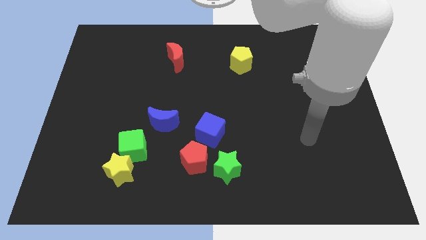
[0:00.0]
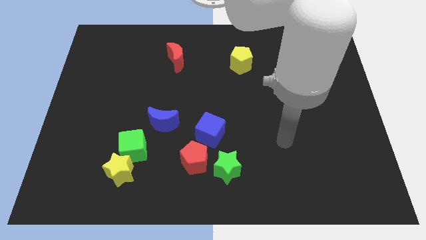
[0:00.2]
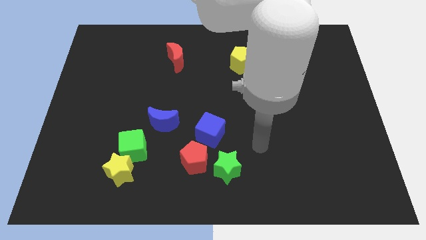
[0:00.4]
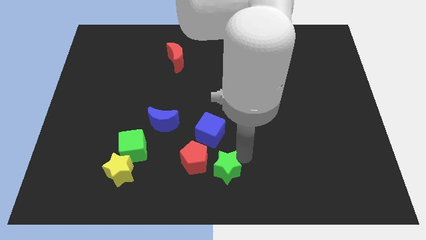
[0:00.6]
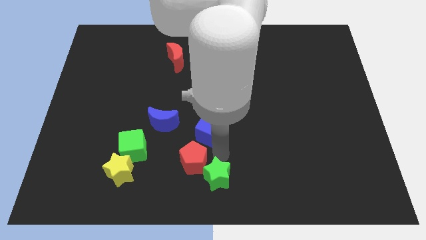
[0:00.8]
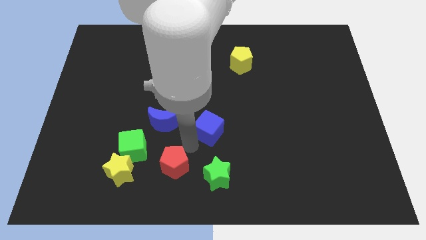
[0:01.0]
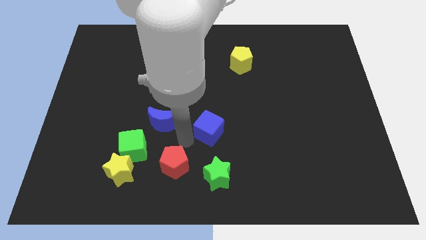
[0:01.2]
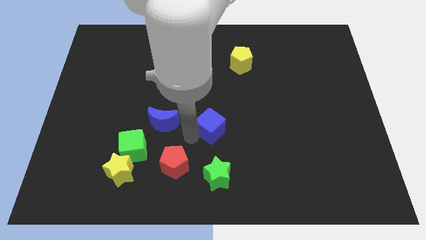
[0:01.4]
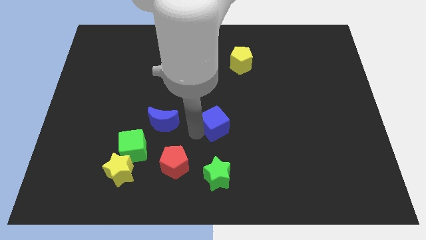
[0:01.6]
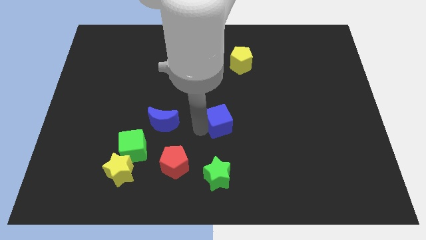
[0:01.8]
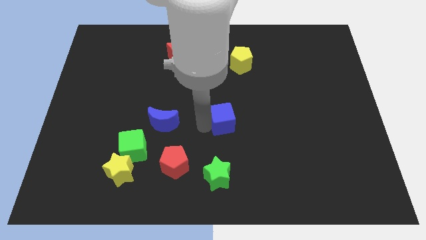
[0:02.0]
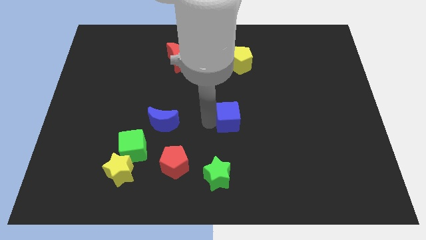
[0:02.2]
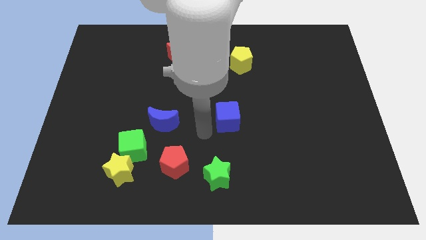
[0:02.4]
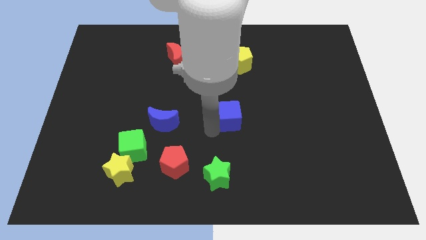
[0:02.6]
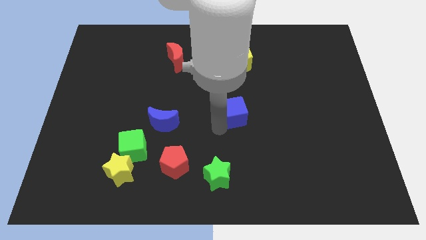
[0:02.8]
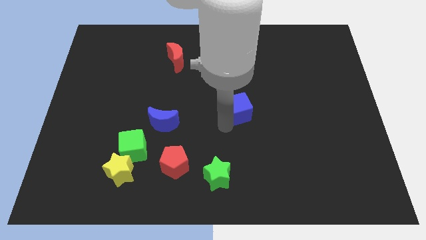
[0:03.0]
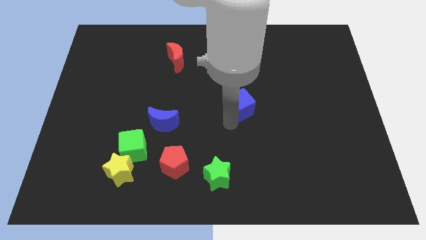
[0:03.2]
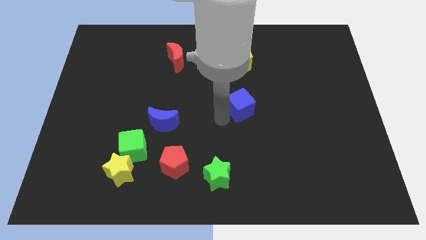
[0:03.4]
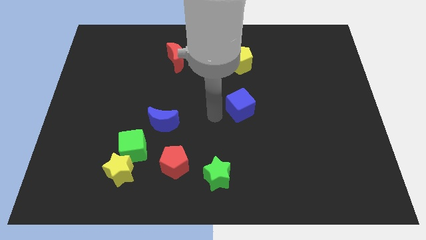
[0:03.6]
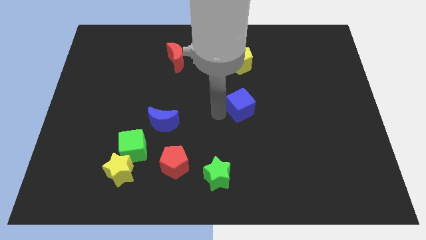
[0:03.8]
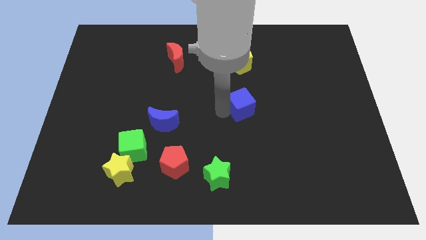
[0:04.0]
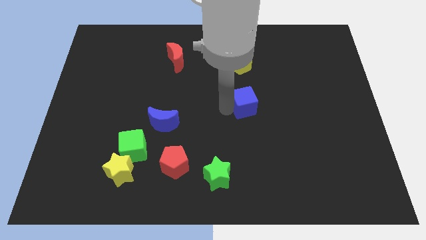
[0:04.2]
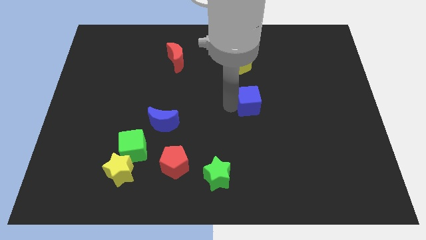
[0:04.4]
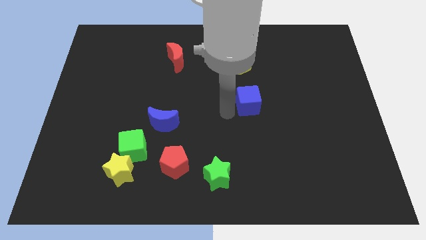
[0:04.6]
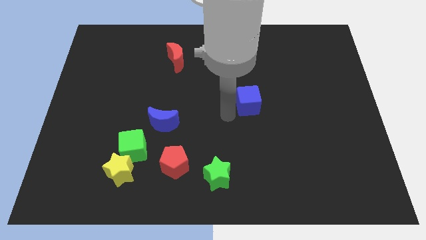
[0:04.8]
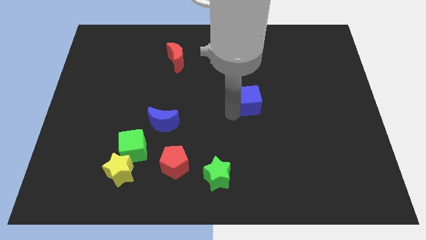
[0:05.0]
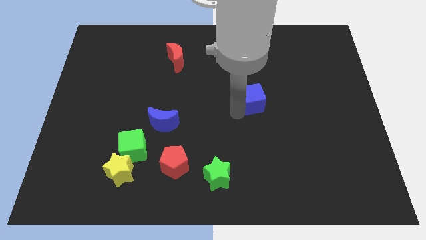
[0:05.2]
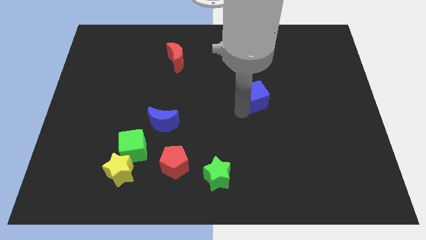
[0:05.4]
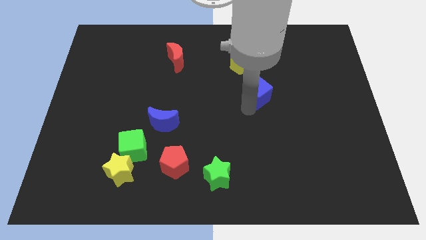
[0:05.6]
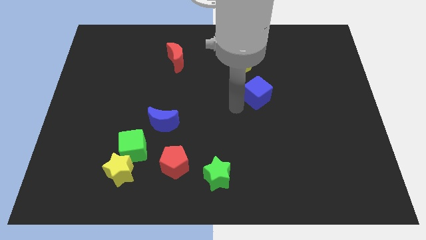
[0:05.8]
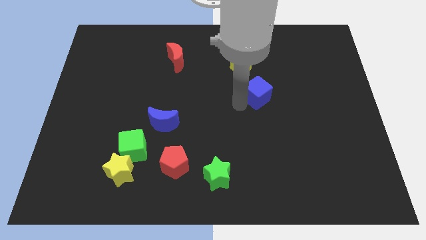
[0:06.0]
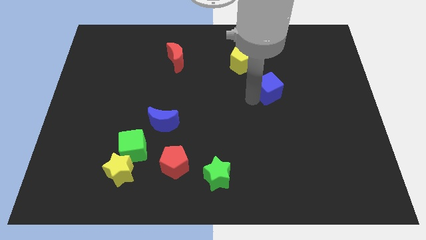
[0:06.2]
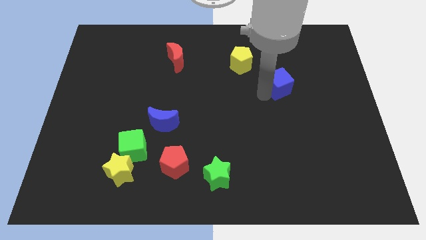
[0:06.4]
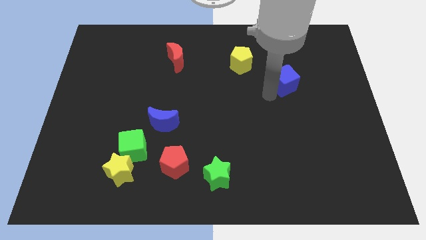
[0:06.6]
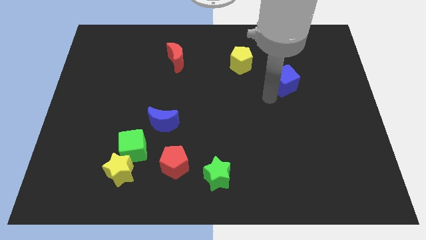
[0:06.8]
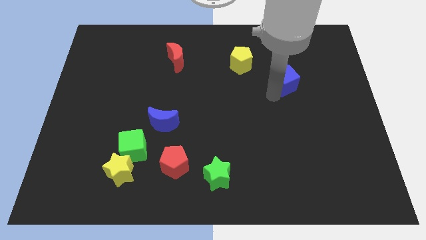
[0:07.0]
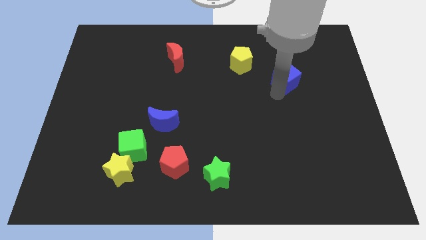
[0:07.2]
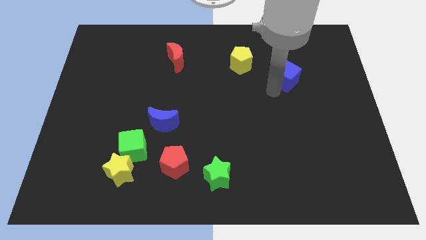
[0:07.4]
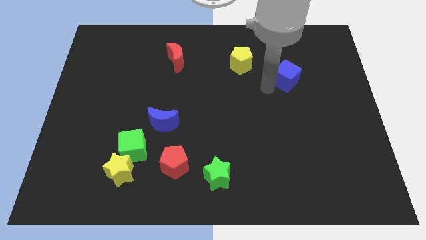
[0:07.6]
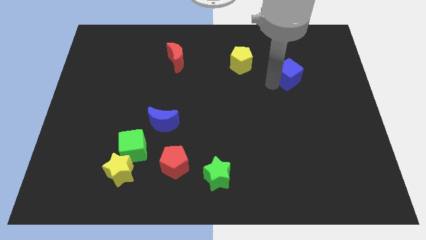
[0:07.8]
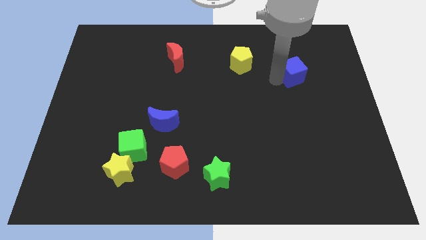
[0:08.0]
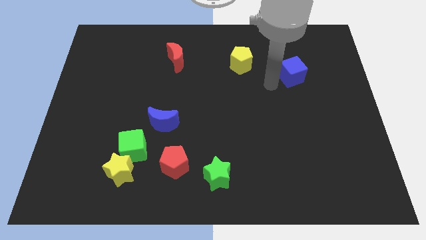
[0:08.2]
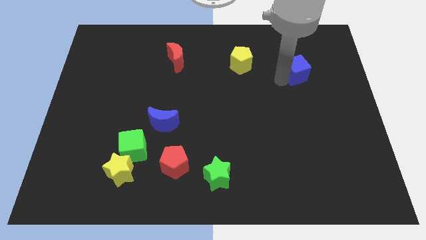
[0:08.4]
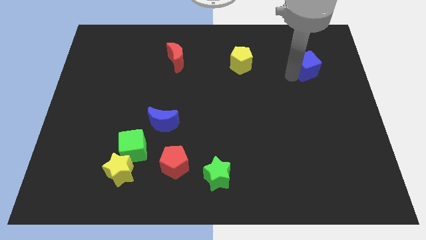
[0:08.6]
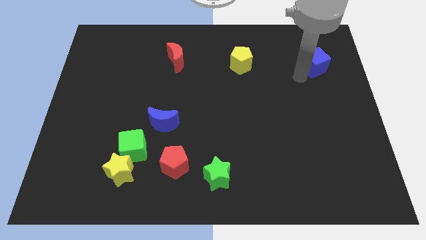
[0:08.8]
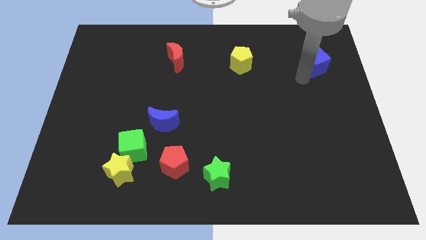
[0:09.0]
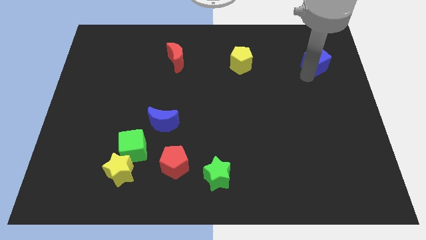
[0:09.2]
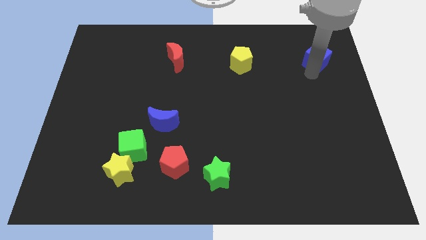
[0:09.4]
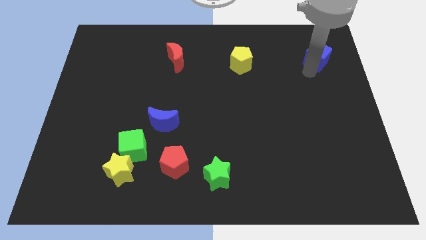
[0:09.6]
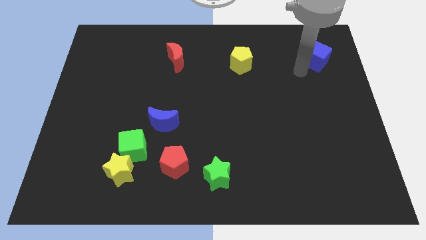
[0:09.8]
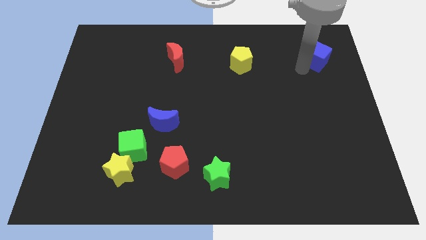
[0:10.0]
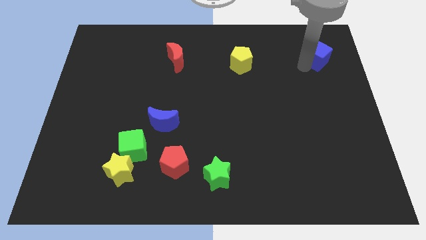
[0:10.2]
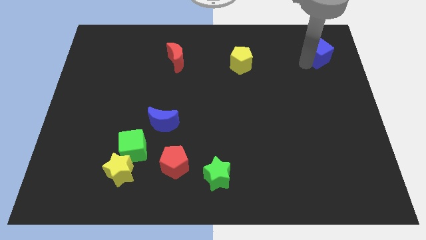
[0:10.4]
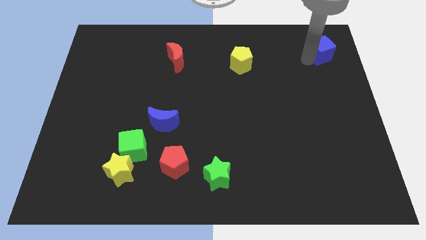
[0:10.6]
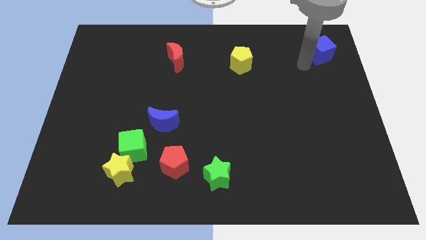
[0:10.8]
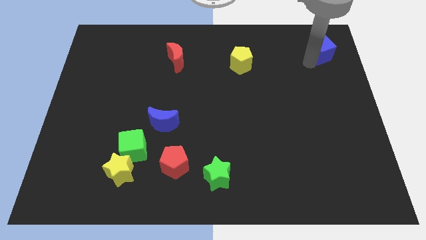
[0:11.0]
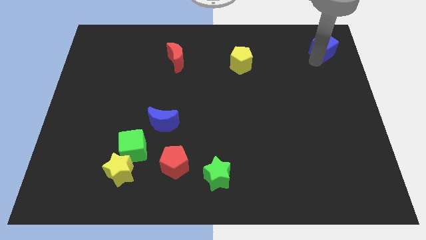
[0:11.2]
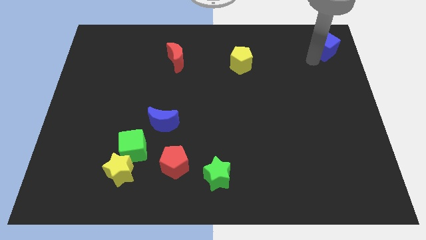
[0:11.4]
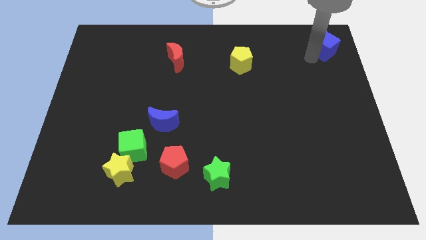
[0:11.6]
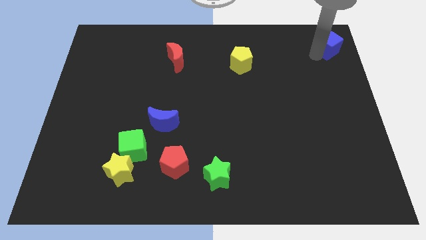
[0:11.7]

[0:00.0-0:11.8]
put the blue cube to the top right

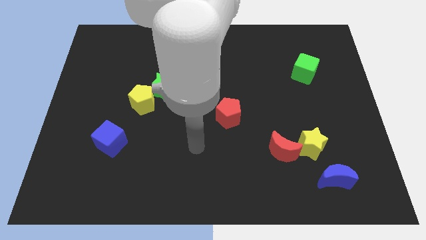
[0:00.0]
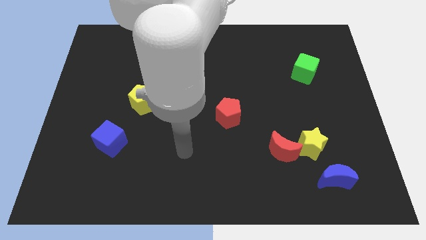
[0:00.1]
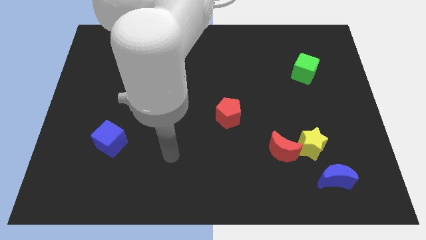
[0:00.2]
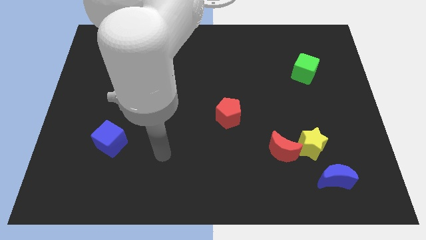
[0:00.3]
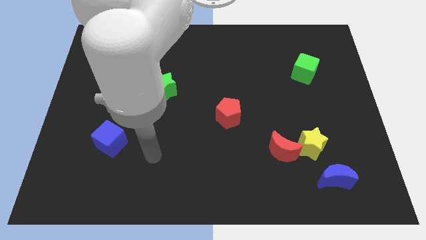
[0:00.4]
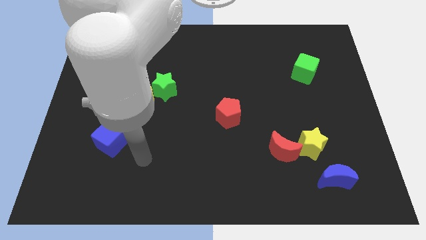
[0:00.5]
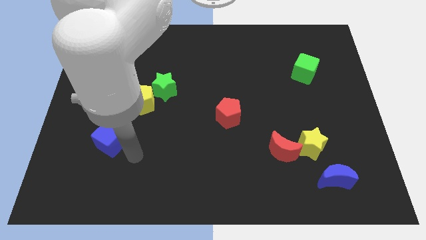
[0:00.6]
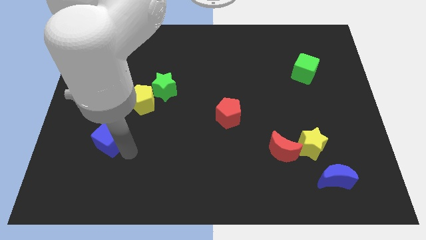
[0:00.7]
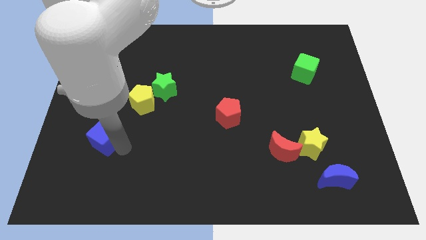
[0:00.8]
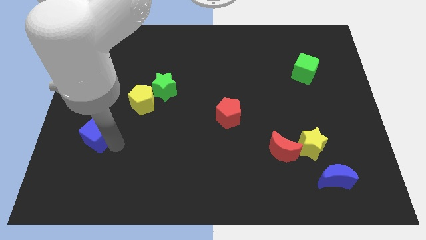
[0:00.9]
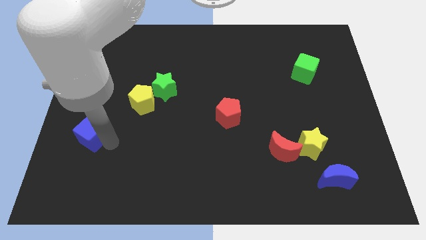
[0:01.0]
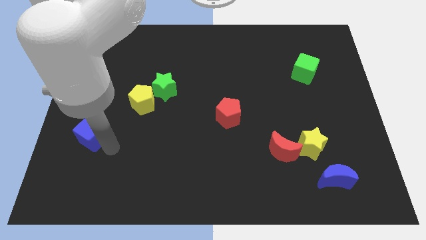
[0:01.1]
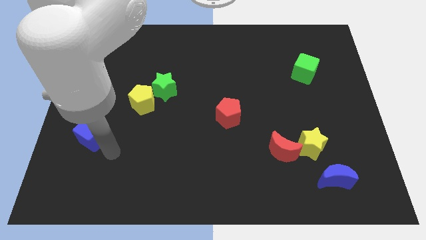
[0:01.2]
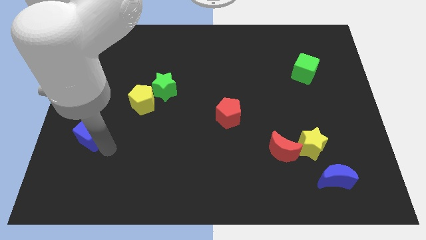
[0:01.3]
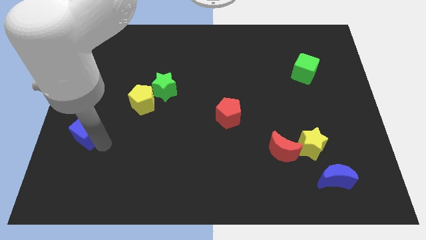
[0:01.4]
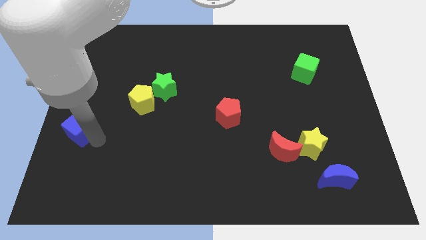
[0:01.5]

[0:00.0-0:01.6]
push the blue cube to the left side of the board
